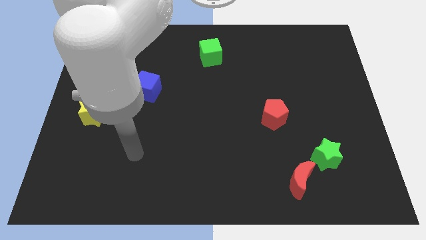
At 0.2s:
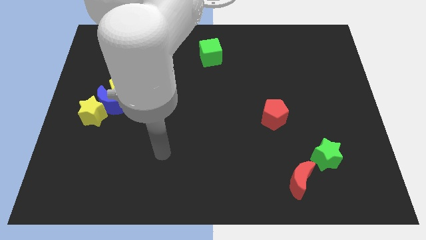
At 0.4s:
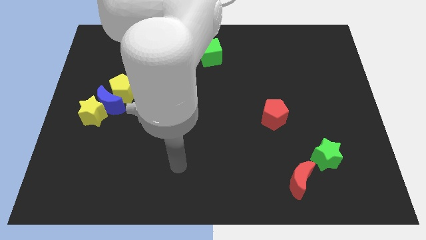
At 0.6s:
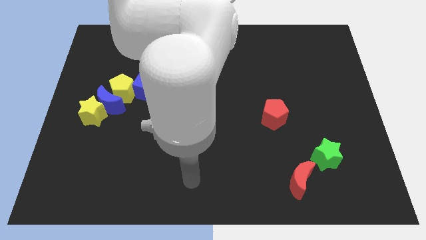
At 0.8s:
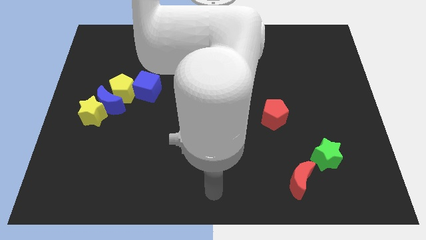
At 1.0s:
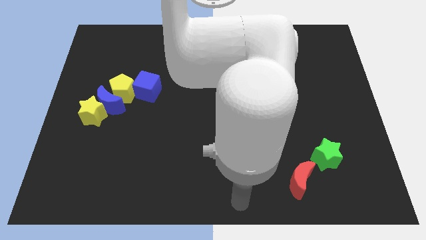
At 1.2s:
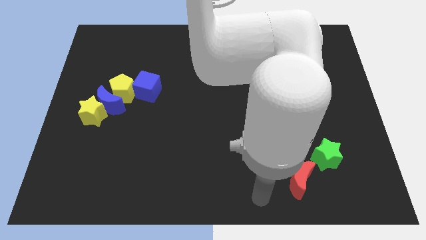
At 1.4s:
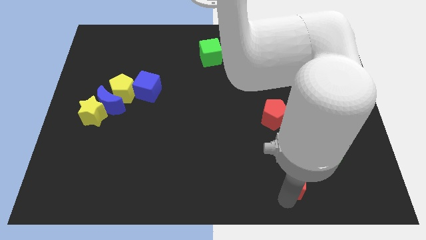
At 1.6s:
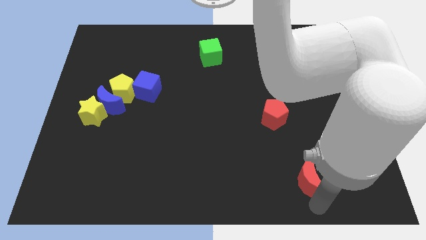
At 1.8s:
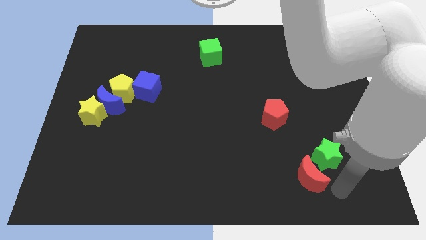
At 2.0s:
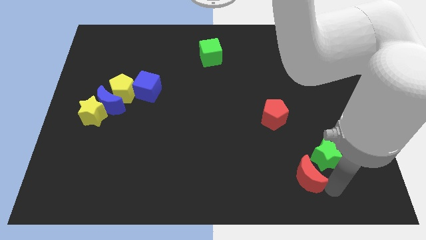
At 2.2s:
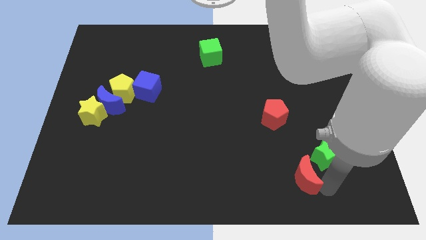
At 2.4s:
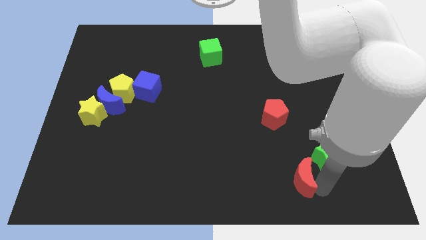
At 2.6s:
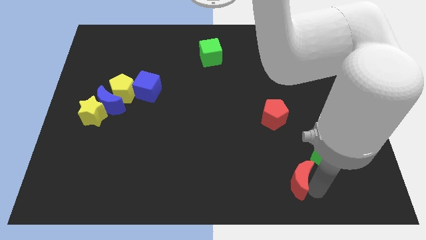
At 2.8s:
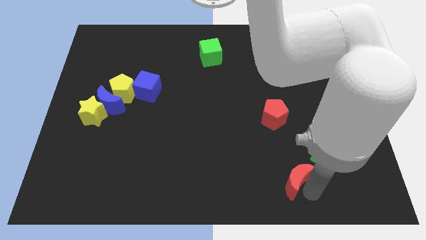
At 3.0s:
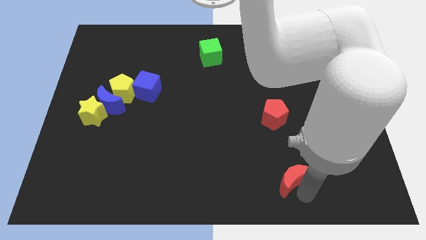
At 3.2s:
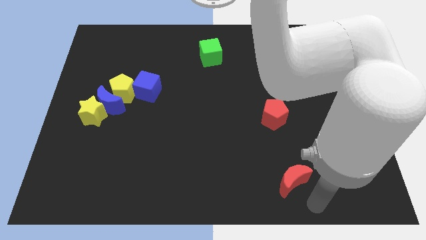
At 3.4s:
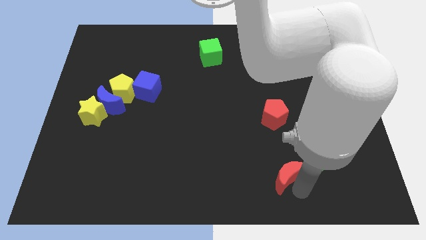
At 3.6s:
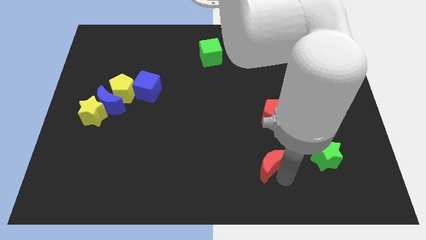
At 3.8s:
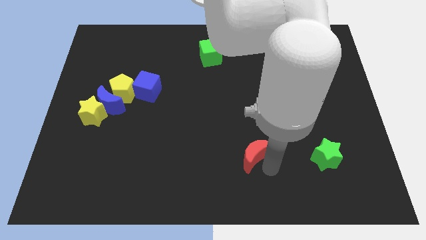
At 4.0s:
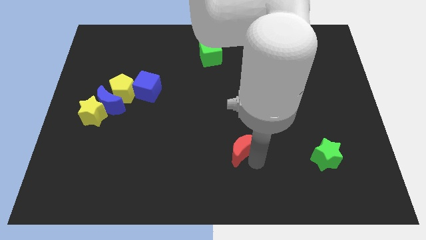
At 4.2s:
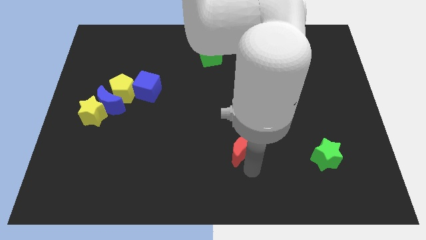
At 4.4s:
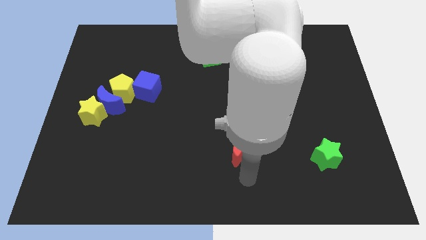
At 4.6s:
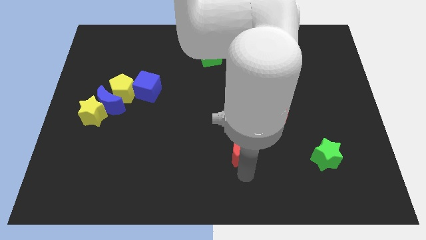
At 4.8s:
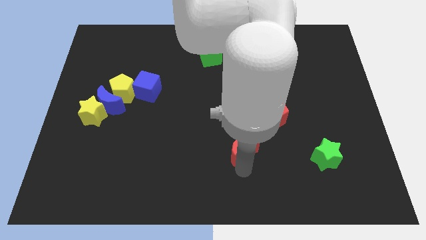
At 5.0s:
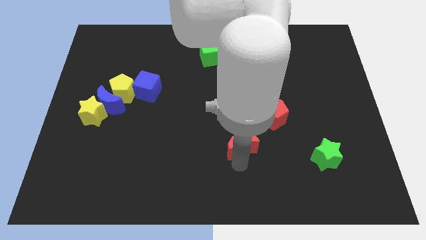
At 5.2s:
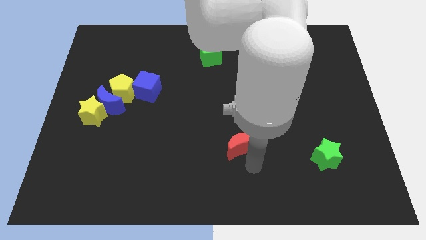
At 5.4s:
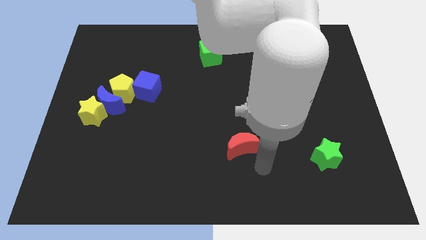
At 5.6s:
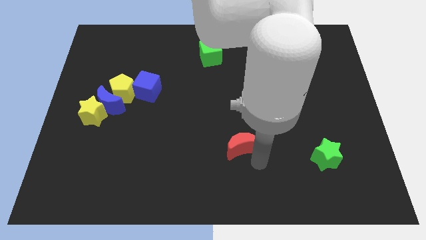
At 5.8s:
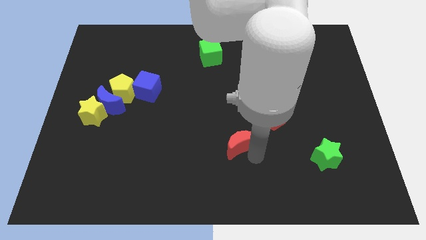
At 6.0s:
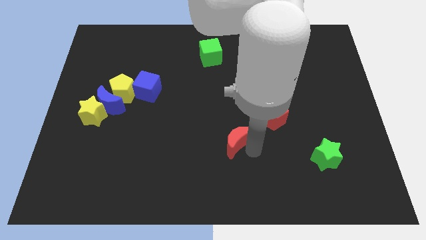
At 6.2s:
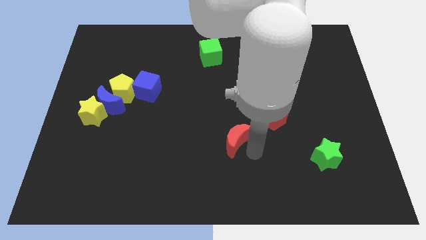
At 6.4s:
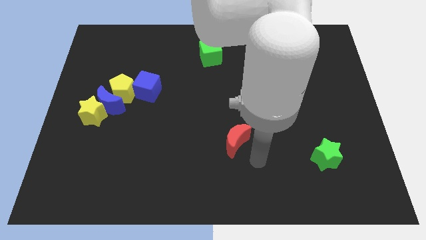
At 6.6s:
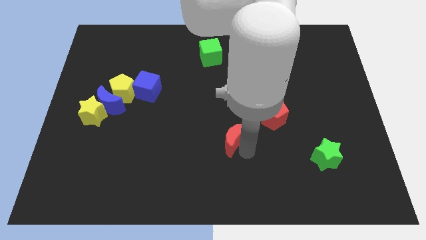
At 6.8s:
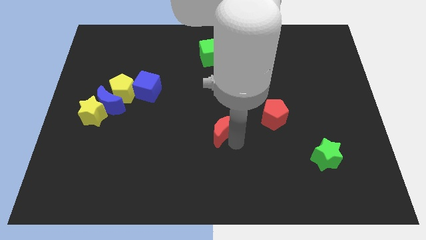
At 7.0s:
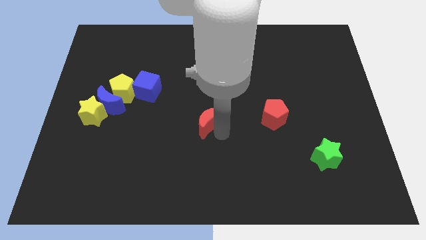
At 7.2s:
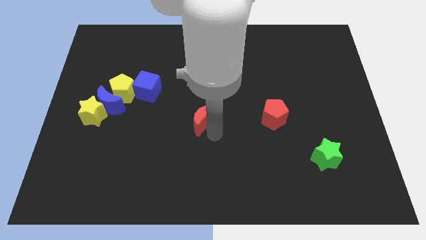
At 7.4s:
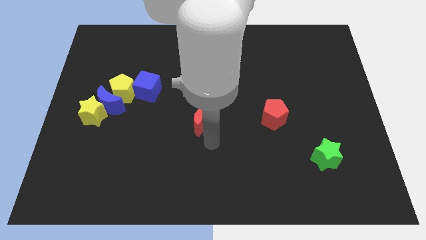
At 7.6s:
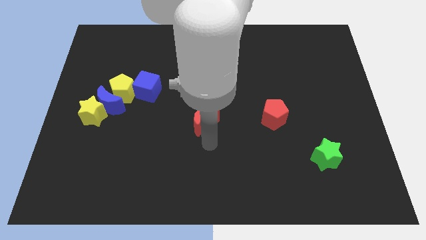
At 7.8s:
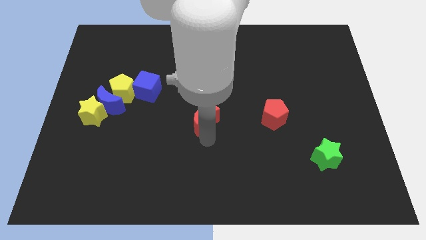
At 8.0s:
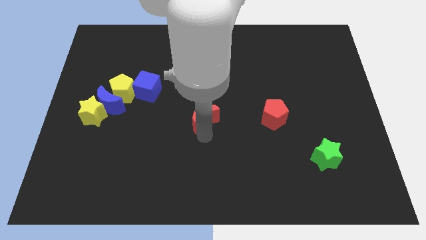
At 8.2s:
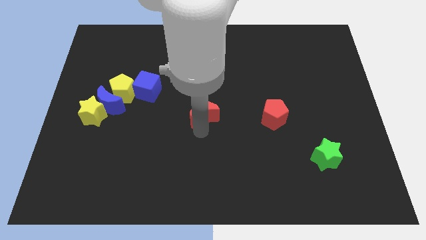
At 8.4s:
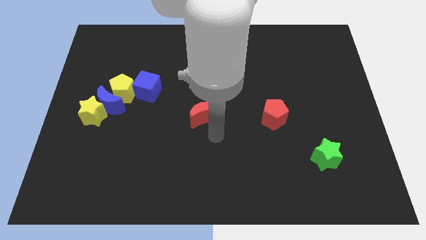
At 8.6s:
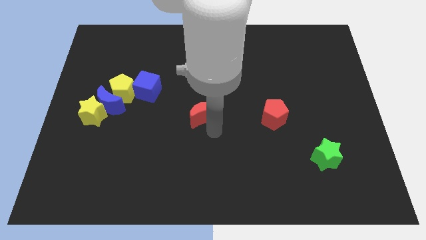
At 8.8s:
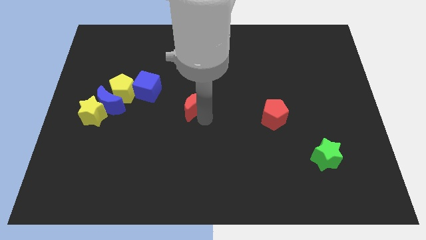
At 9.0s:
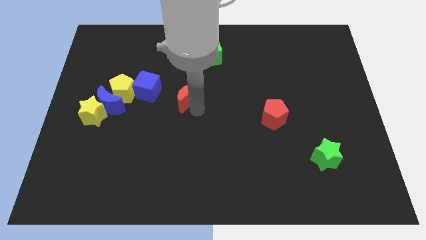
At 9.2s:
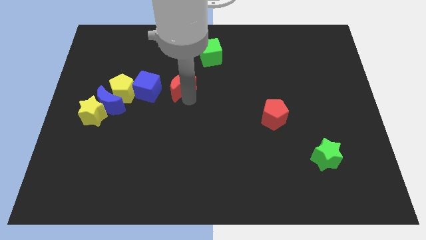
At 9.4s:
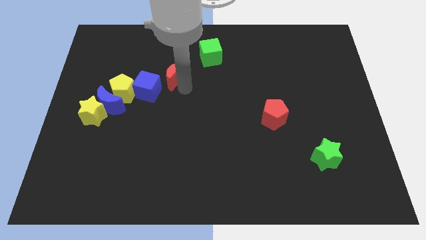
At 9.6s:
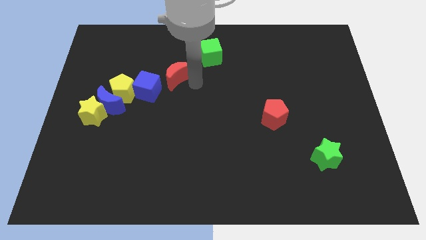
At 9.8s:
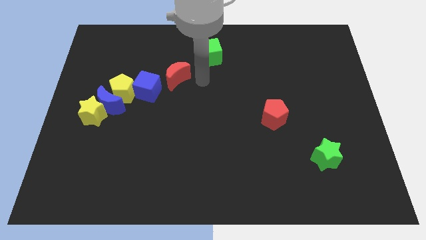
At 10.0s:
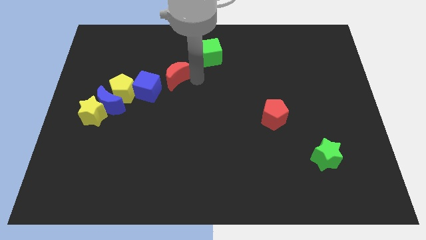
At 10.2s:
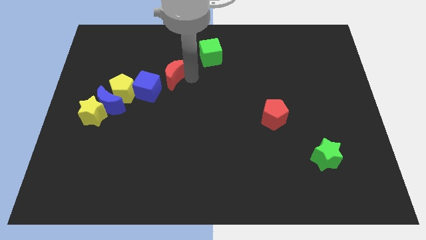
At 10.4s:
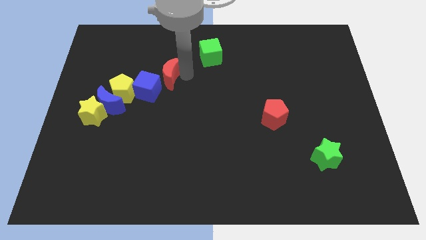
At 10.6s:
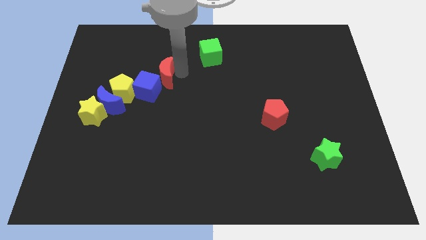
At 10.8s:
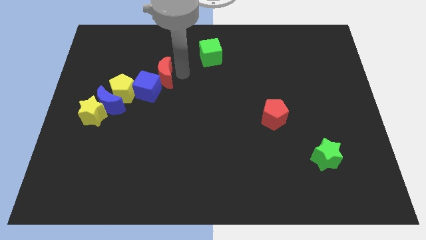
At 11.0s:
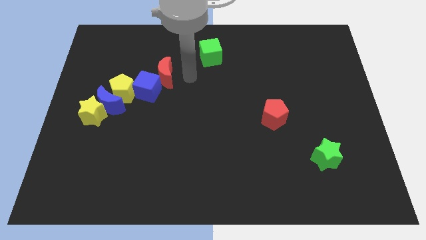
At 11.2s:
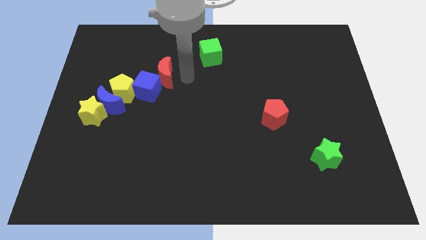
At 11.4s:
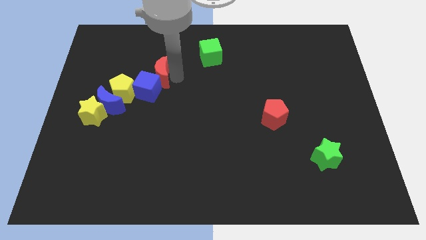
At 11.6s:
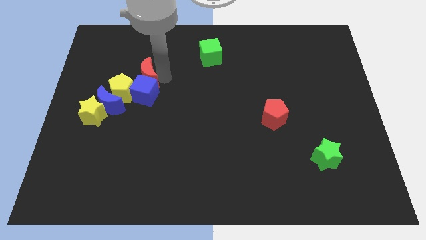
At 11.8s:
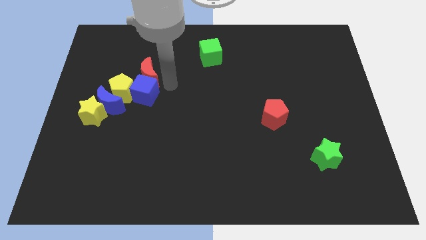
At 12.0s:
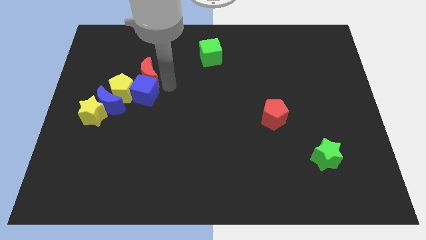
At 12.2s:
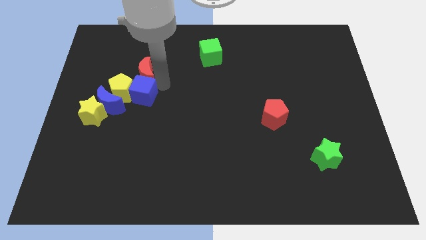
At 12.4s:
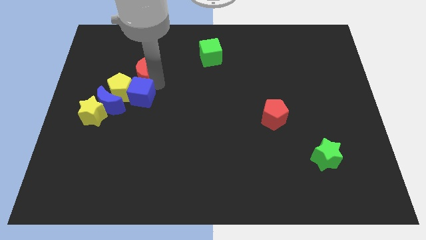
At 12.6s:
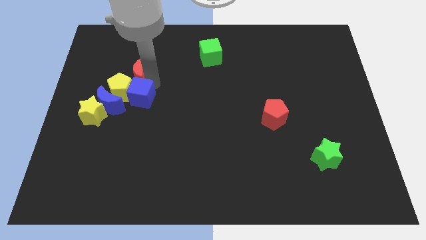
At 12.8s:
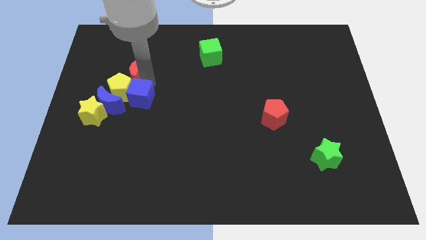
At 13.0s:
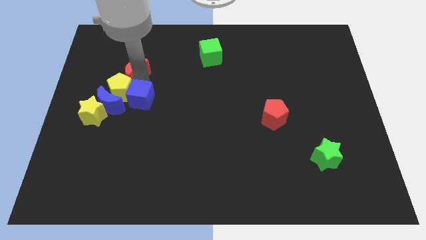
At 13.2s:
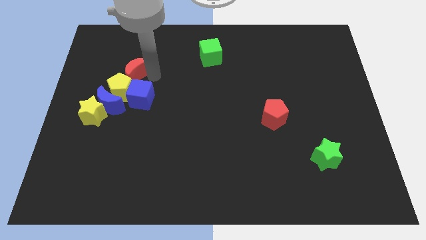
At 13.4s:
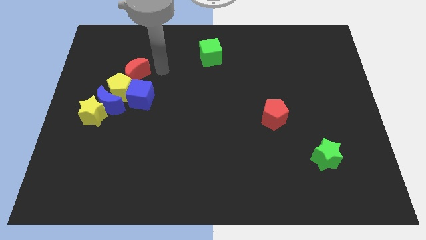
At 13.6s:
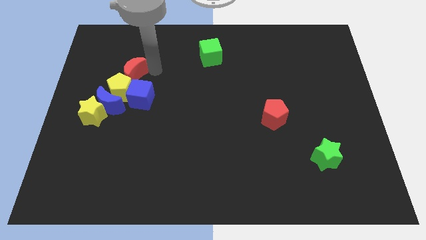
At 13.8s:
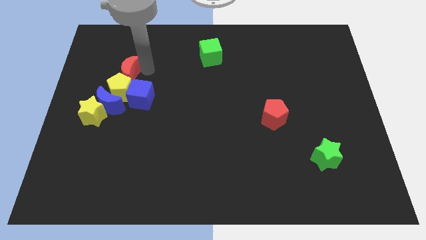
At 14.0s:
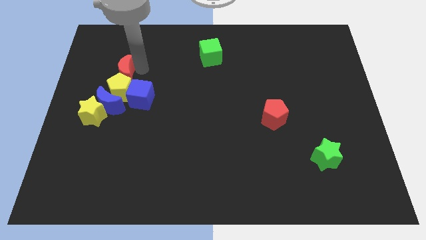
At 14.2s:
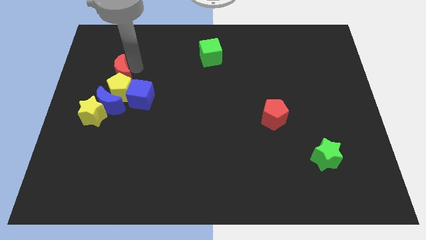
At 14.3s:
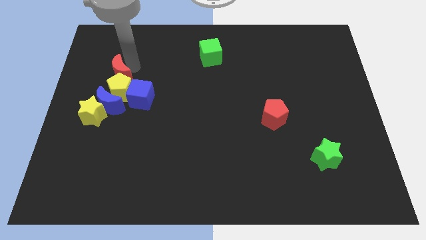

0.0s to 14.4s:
push the red moon to the top of the yellow star
